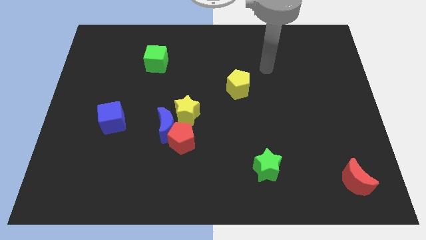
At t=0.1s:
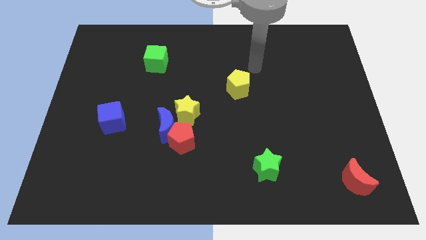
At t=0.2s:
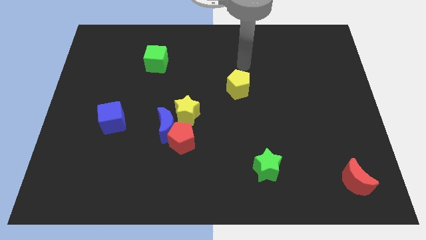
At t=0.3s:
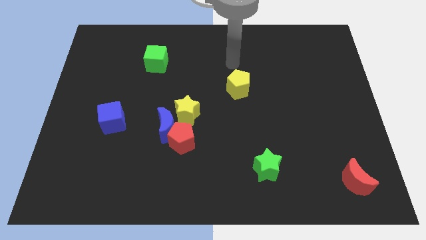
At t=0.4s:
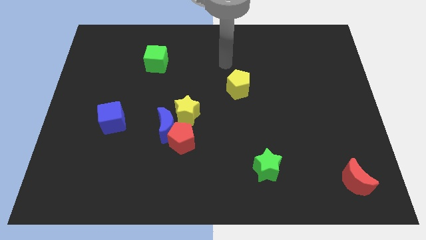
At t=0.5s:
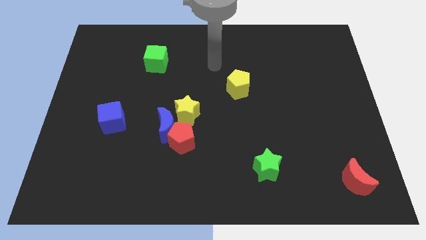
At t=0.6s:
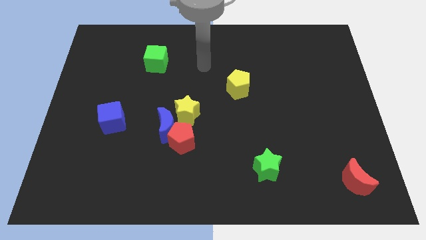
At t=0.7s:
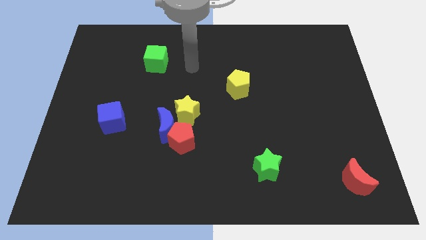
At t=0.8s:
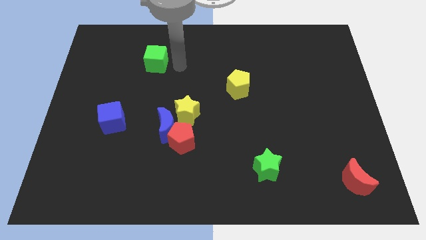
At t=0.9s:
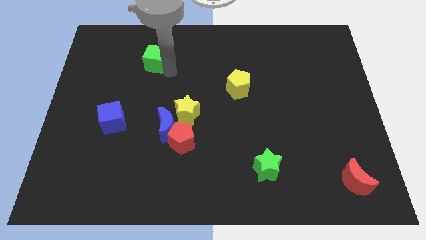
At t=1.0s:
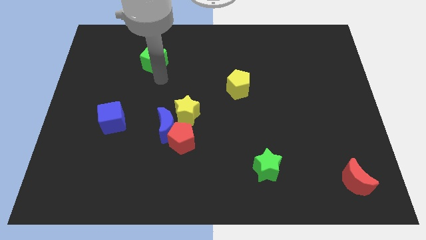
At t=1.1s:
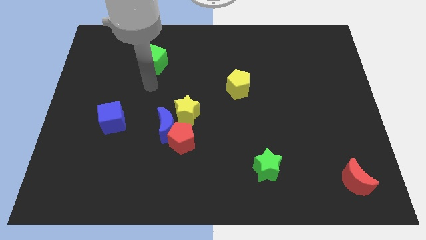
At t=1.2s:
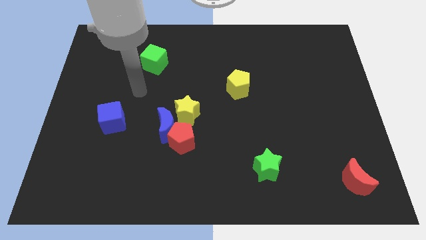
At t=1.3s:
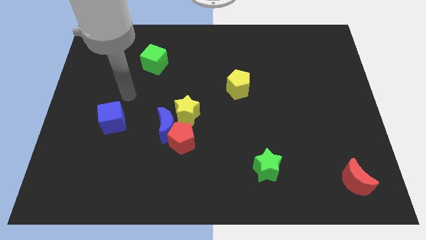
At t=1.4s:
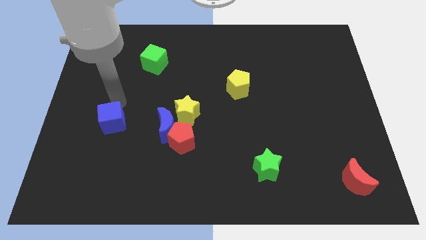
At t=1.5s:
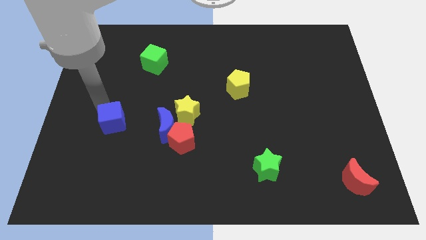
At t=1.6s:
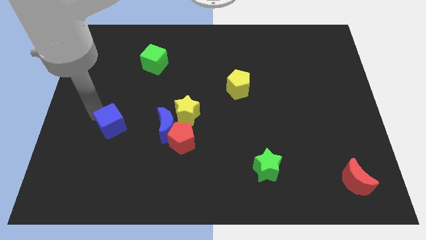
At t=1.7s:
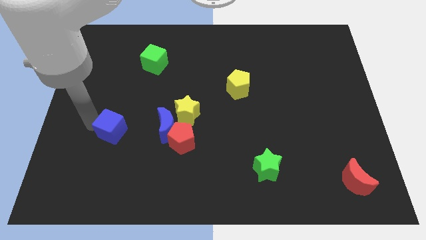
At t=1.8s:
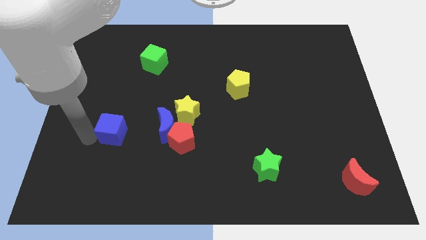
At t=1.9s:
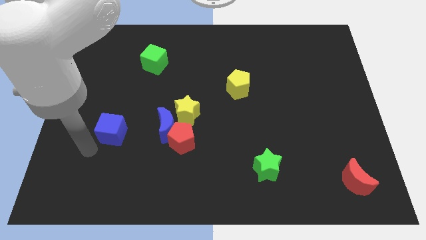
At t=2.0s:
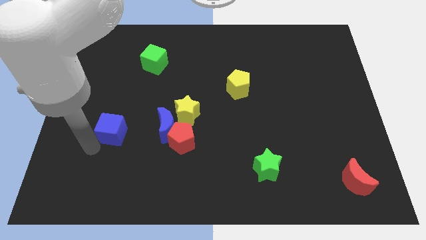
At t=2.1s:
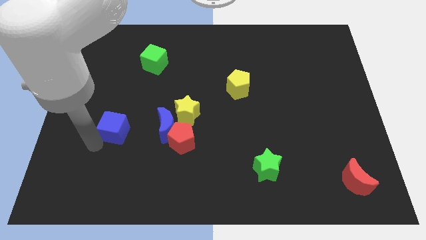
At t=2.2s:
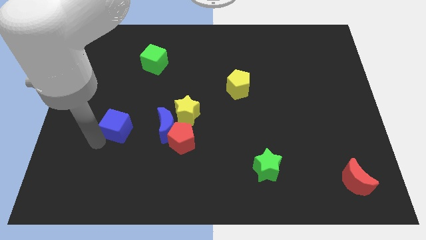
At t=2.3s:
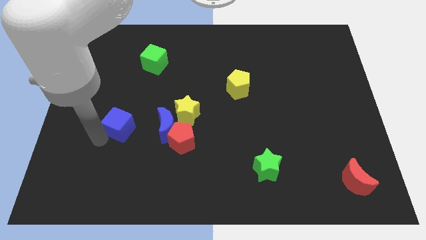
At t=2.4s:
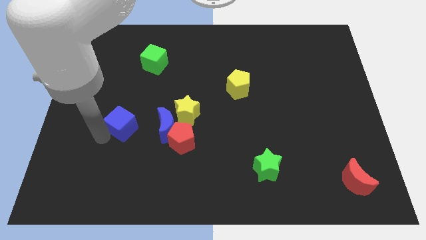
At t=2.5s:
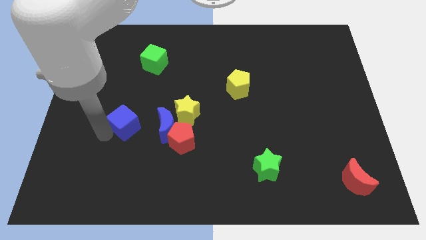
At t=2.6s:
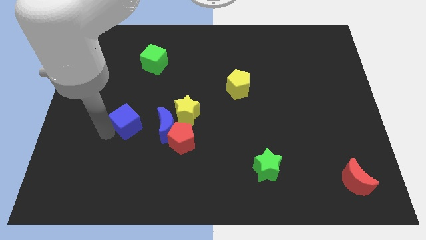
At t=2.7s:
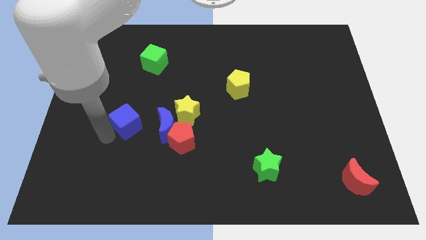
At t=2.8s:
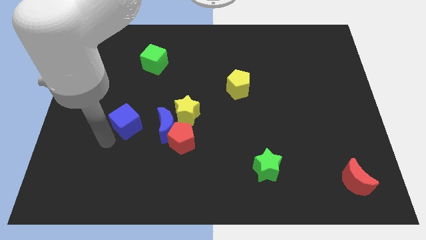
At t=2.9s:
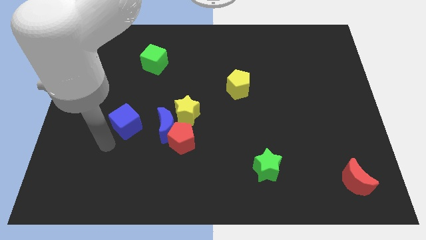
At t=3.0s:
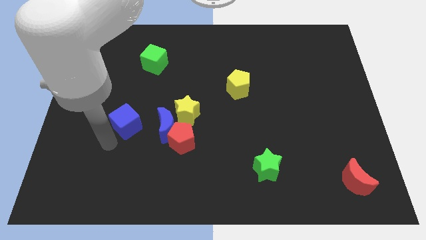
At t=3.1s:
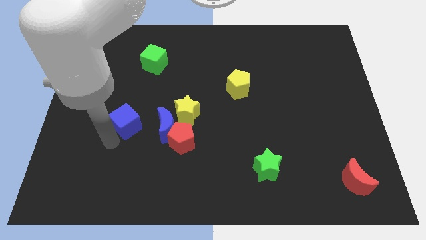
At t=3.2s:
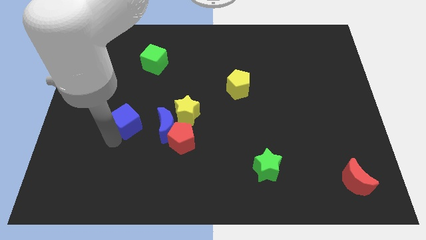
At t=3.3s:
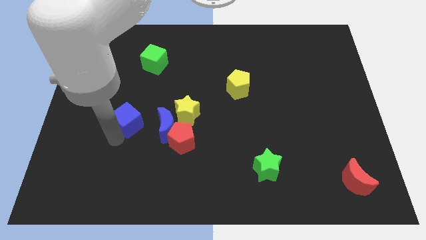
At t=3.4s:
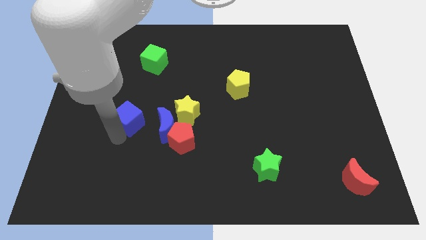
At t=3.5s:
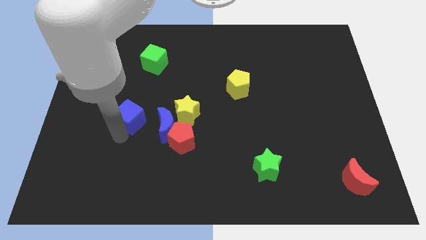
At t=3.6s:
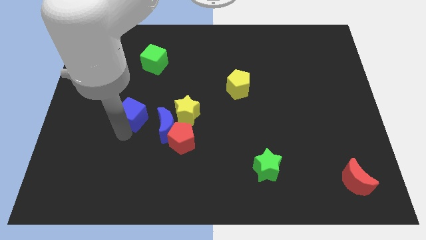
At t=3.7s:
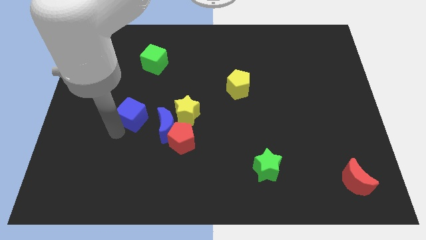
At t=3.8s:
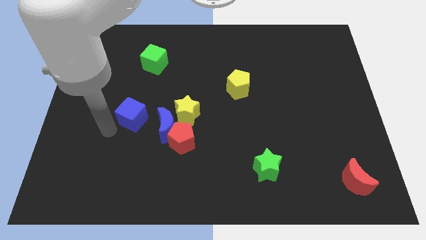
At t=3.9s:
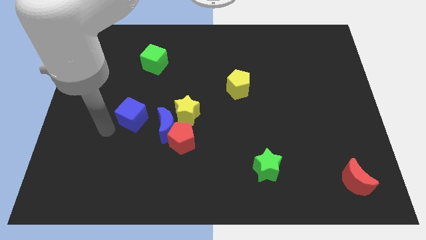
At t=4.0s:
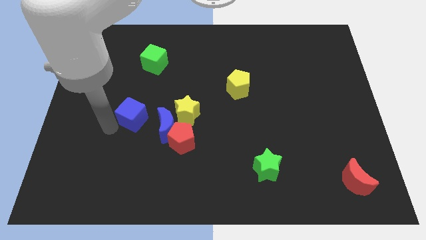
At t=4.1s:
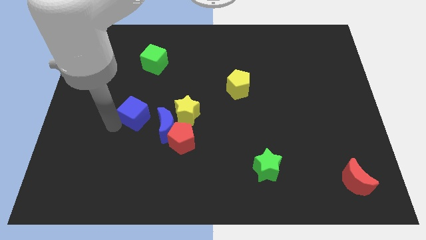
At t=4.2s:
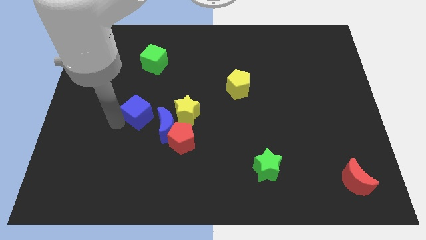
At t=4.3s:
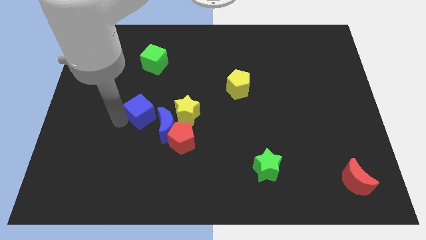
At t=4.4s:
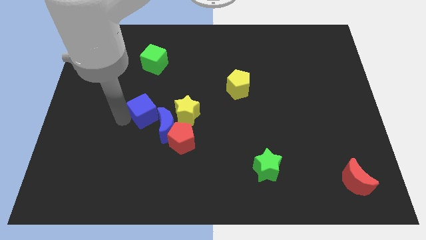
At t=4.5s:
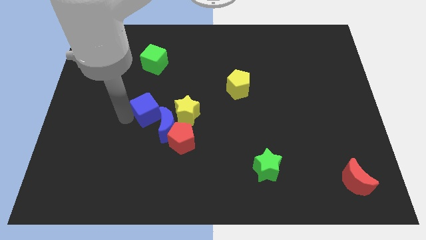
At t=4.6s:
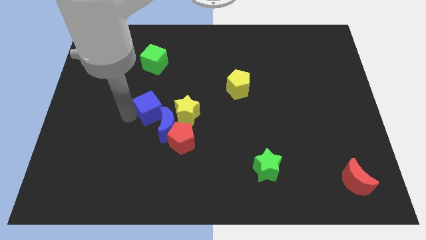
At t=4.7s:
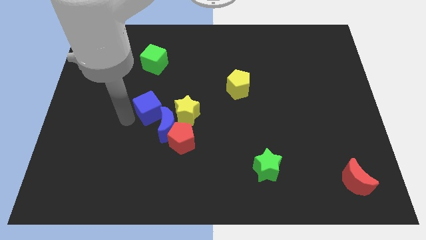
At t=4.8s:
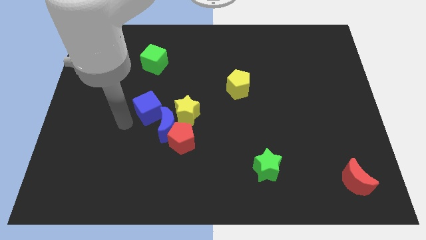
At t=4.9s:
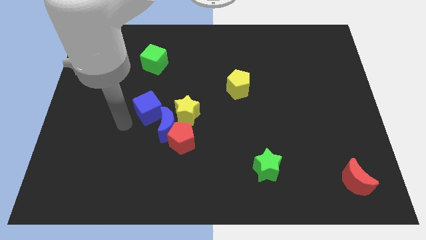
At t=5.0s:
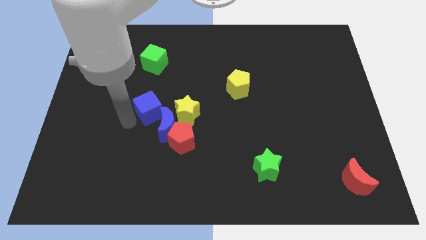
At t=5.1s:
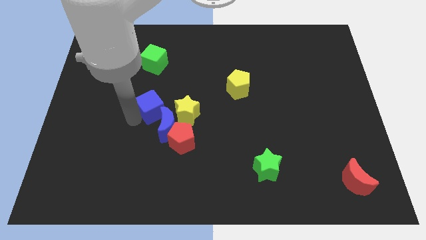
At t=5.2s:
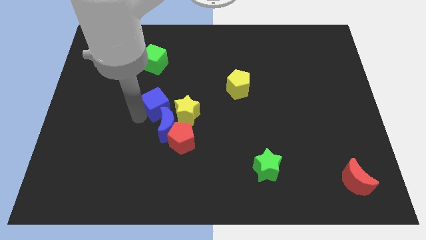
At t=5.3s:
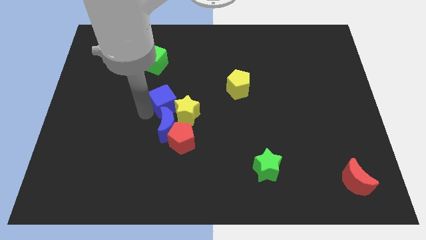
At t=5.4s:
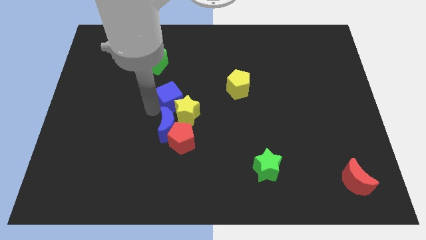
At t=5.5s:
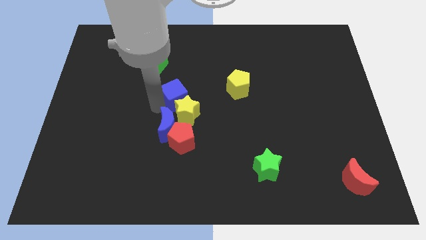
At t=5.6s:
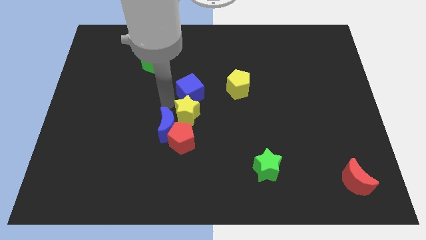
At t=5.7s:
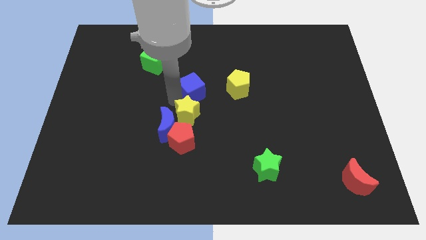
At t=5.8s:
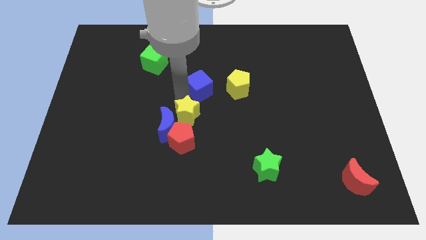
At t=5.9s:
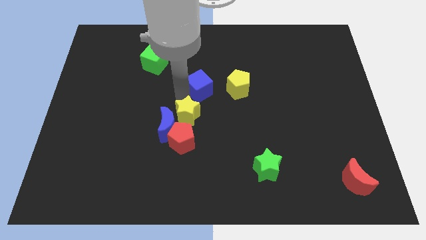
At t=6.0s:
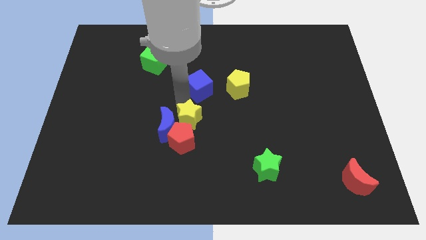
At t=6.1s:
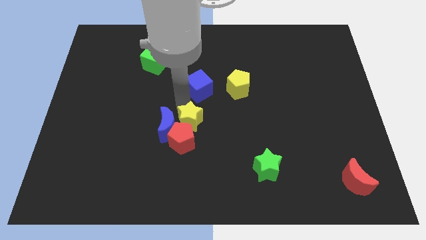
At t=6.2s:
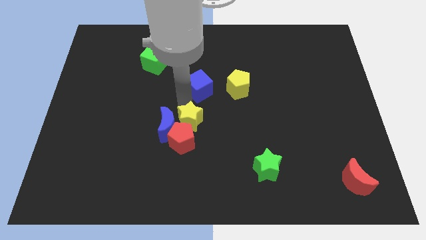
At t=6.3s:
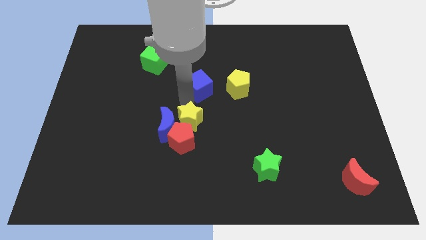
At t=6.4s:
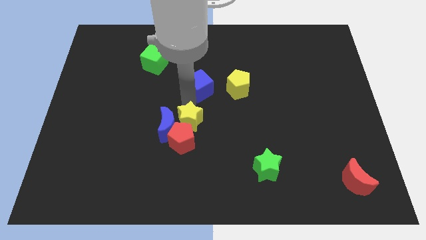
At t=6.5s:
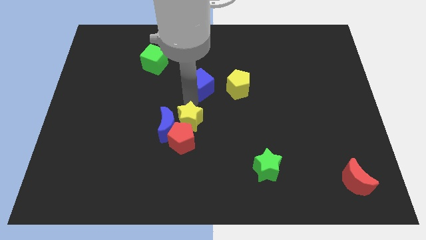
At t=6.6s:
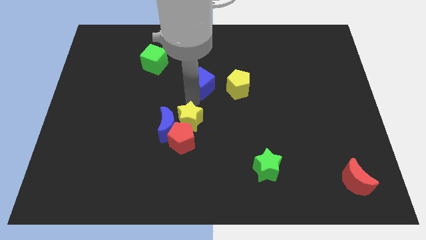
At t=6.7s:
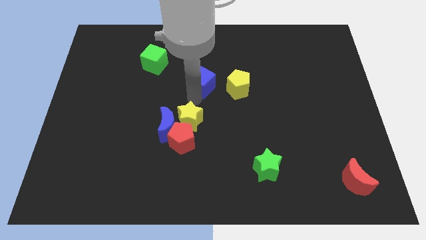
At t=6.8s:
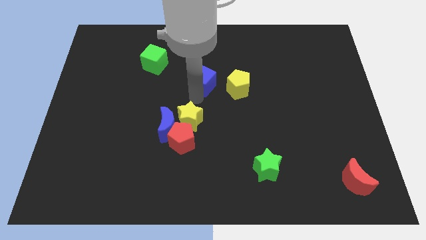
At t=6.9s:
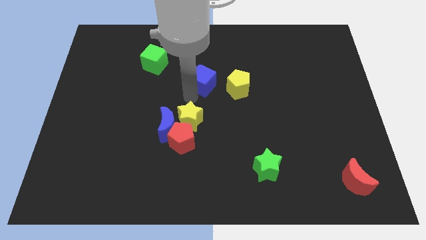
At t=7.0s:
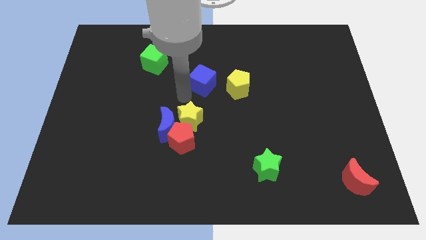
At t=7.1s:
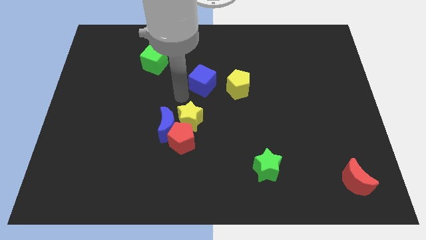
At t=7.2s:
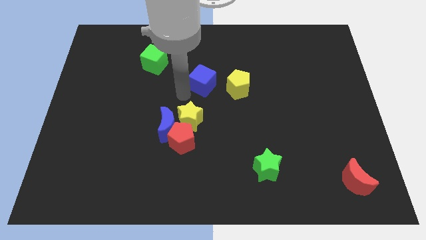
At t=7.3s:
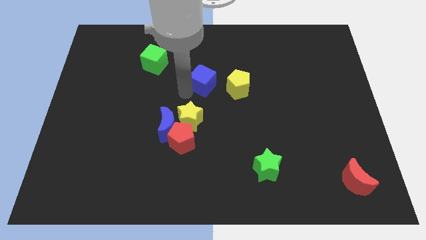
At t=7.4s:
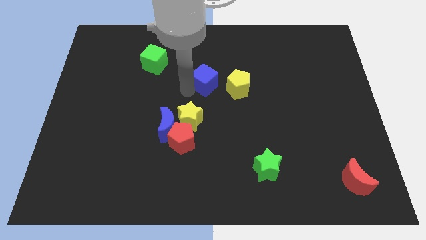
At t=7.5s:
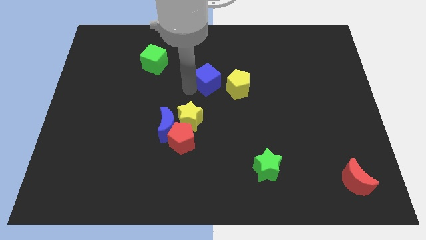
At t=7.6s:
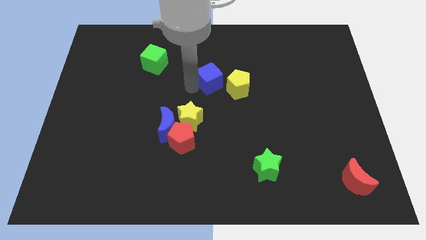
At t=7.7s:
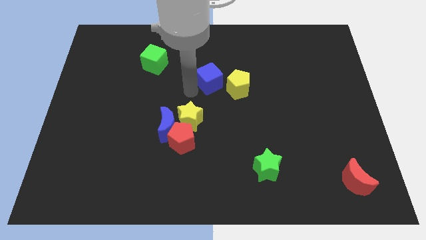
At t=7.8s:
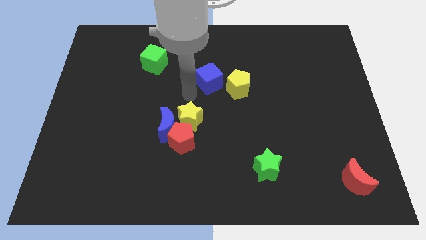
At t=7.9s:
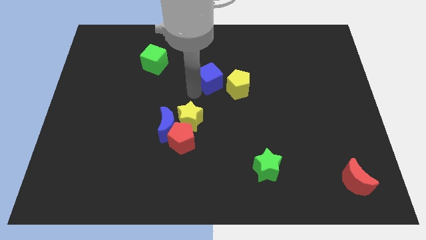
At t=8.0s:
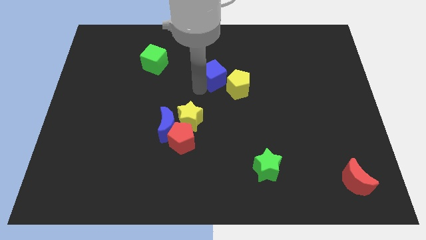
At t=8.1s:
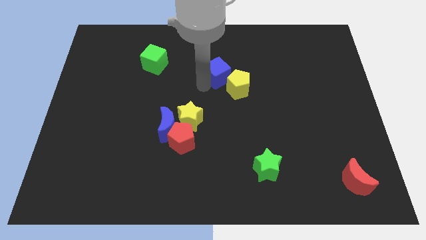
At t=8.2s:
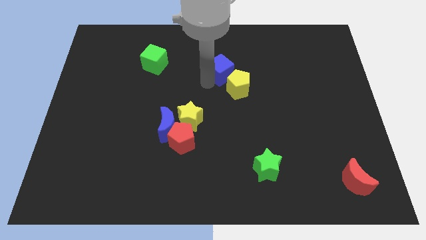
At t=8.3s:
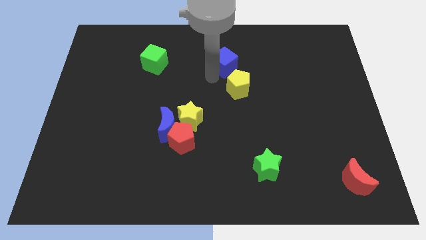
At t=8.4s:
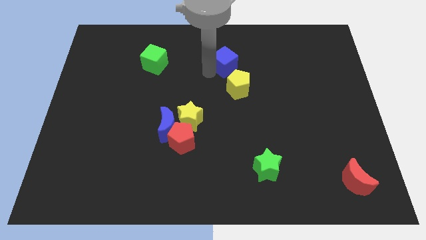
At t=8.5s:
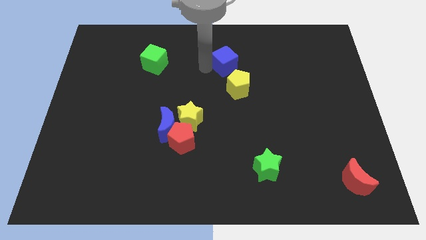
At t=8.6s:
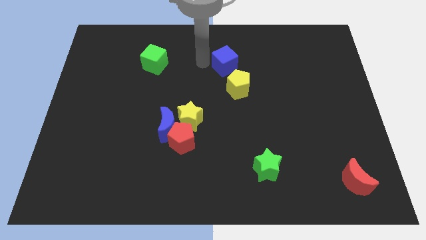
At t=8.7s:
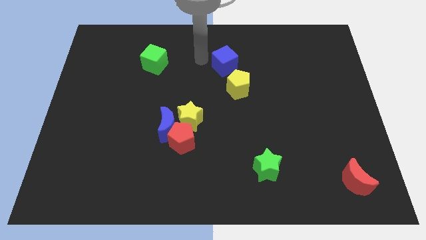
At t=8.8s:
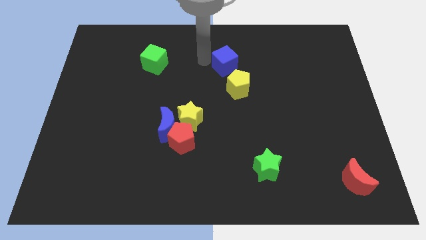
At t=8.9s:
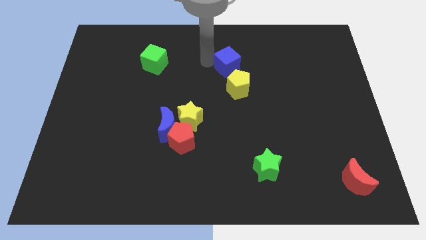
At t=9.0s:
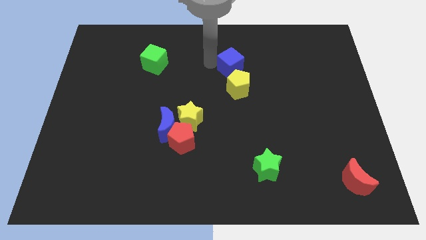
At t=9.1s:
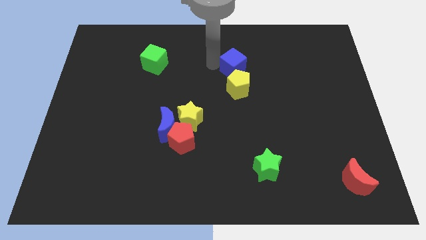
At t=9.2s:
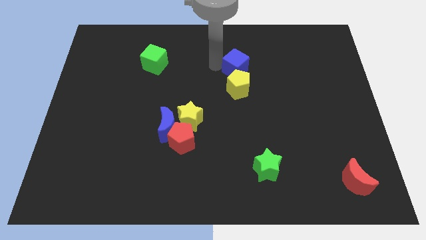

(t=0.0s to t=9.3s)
move the blue cube to the top right side of the yellow pentagon
